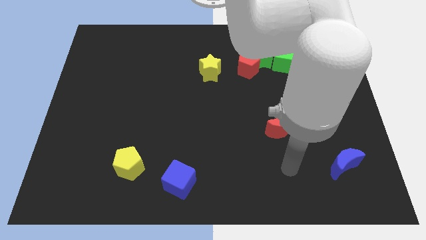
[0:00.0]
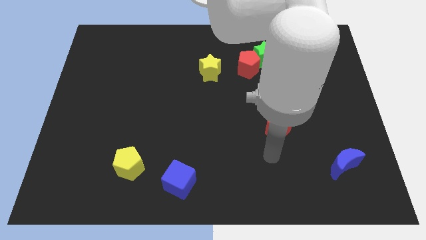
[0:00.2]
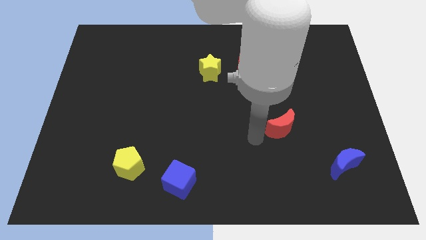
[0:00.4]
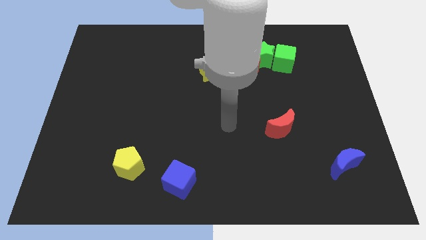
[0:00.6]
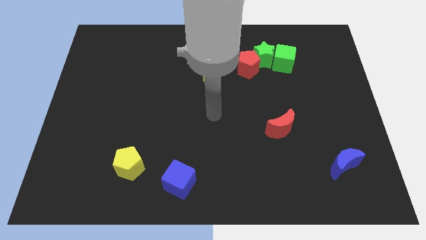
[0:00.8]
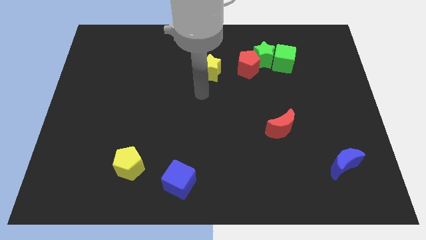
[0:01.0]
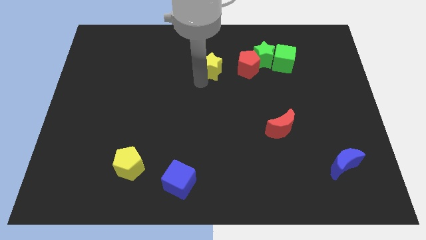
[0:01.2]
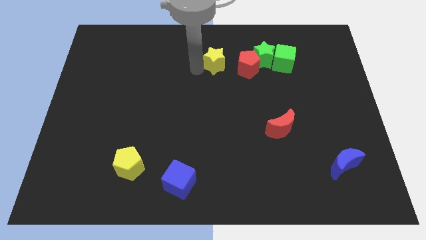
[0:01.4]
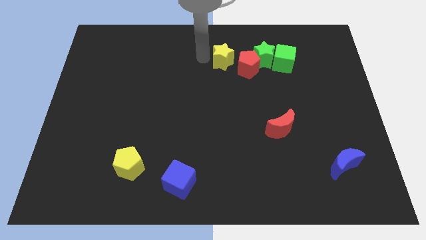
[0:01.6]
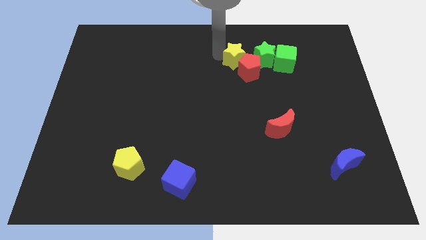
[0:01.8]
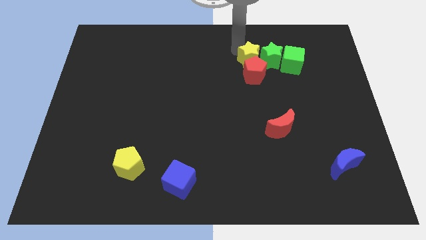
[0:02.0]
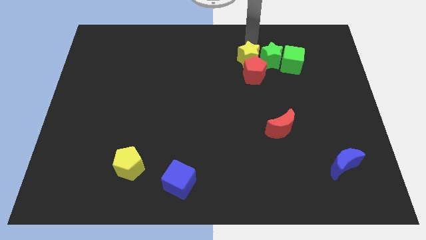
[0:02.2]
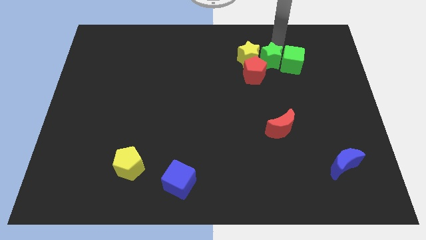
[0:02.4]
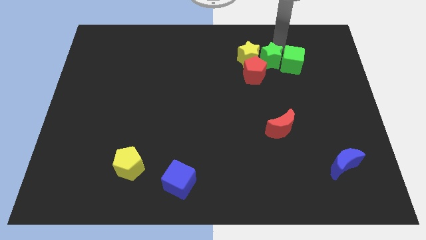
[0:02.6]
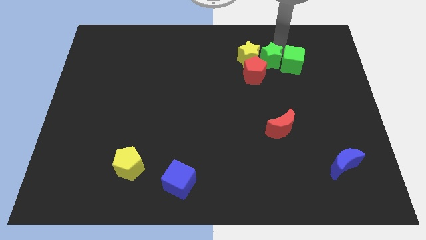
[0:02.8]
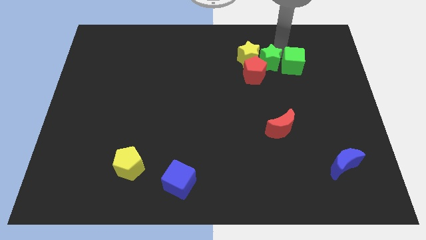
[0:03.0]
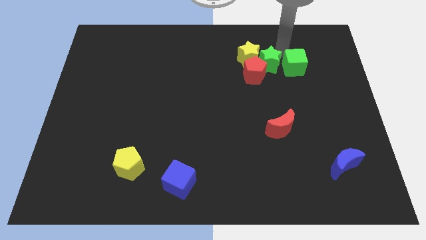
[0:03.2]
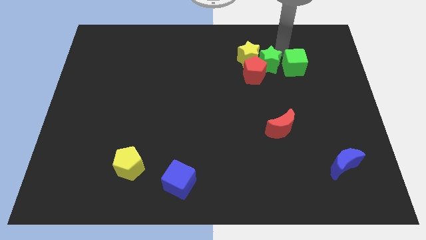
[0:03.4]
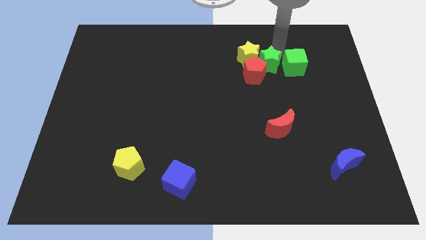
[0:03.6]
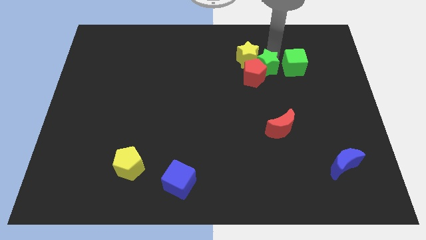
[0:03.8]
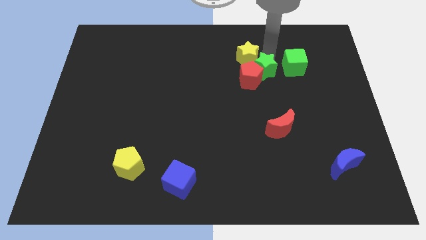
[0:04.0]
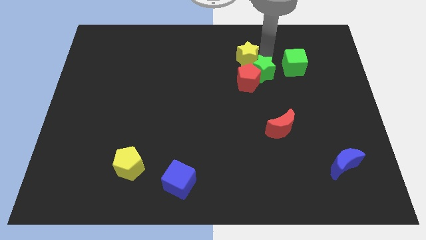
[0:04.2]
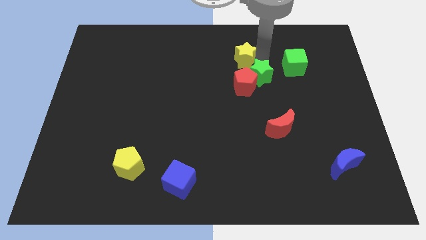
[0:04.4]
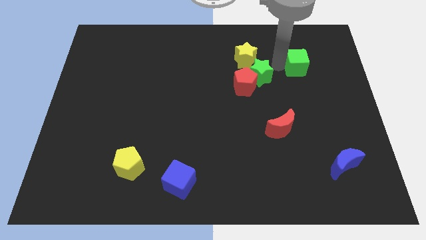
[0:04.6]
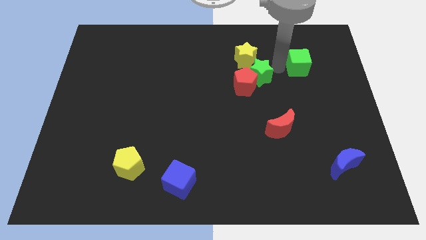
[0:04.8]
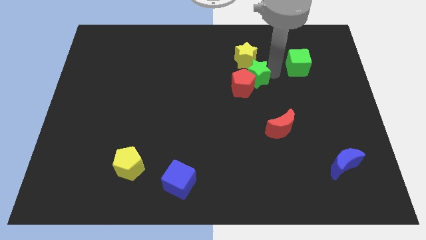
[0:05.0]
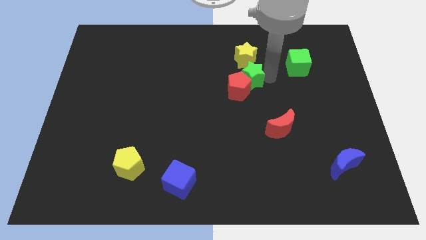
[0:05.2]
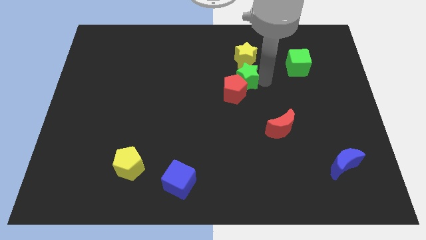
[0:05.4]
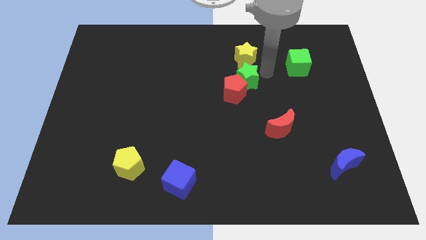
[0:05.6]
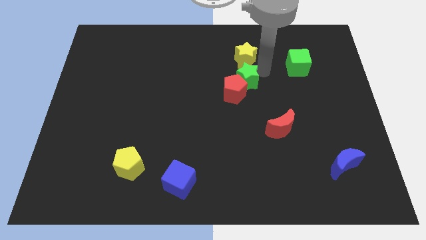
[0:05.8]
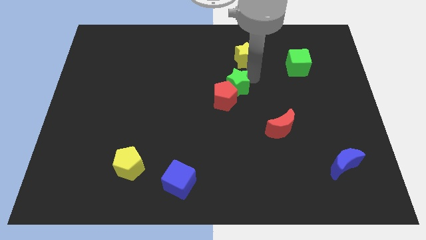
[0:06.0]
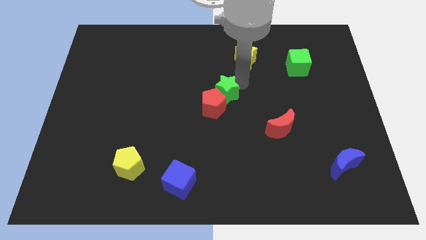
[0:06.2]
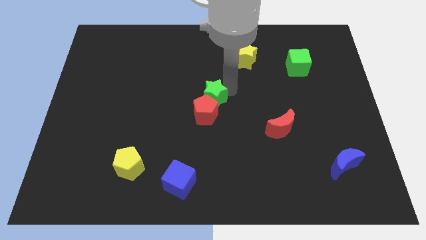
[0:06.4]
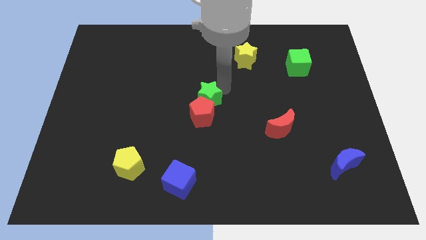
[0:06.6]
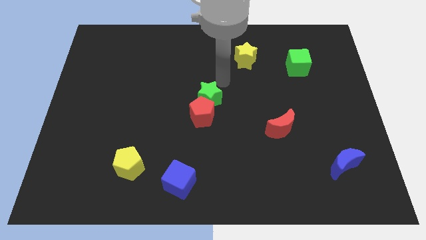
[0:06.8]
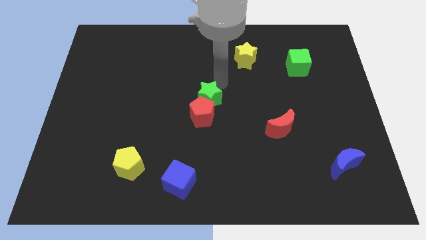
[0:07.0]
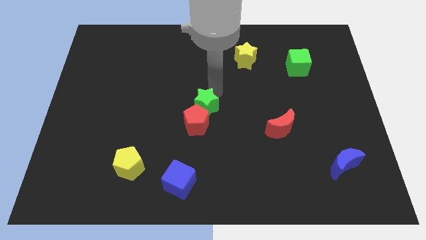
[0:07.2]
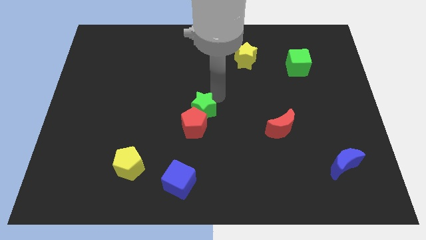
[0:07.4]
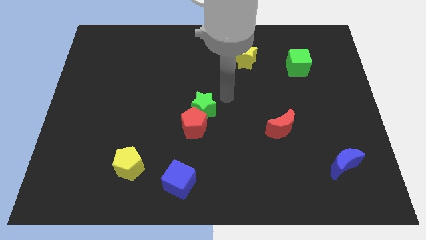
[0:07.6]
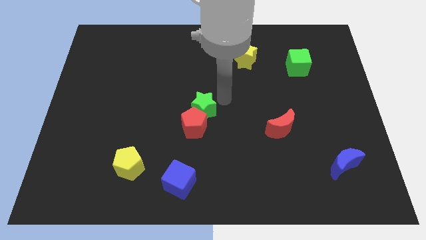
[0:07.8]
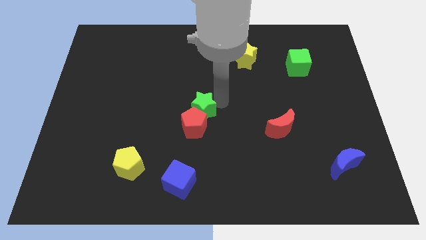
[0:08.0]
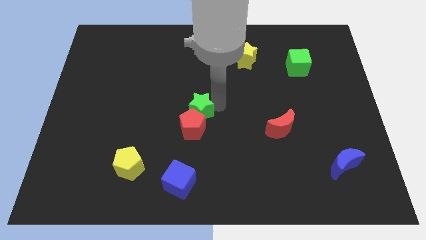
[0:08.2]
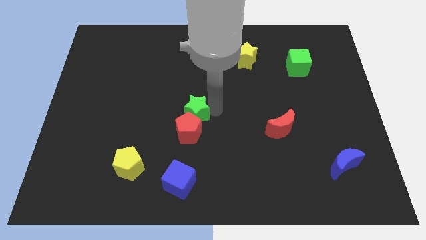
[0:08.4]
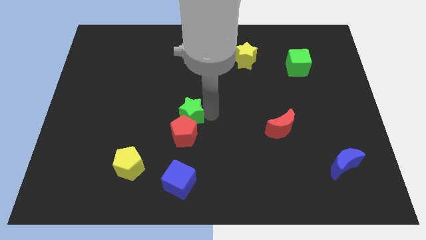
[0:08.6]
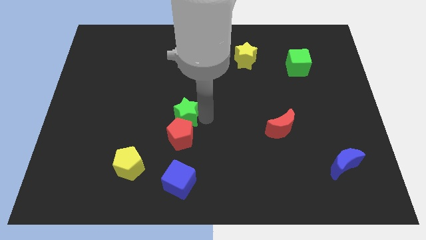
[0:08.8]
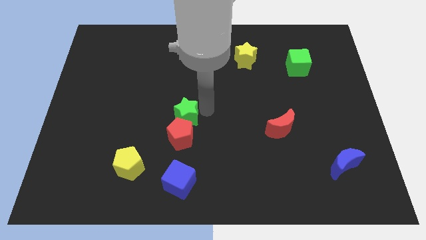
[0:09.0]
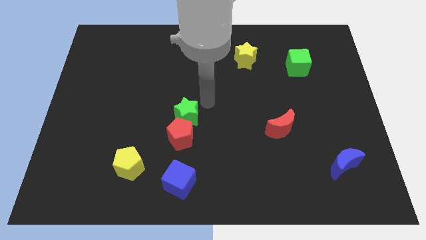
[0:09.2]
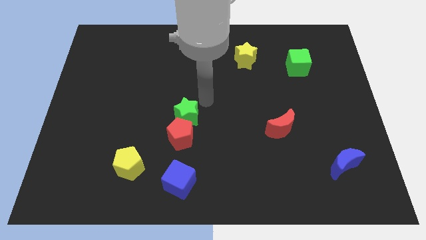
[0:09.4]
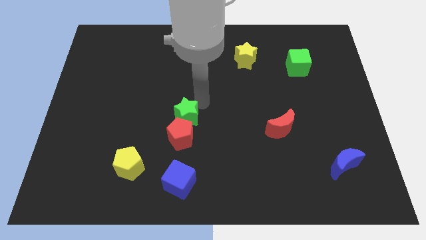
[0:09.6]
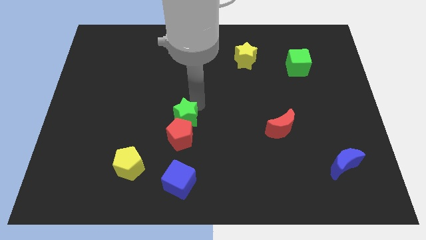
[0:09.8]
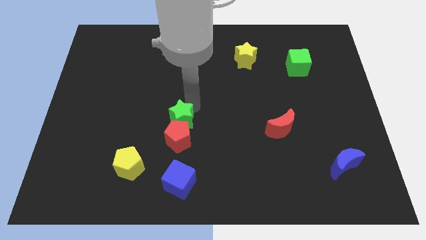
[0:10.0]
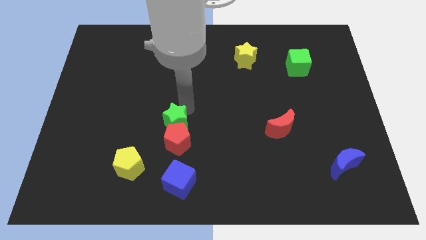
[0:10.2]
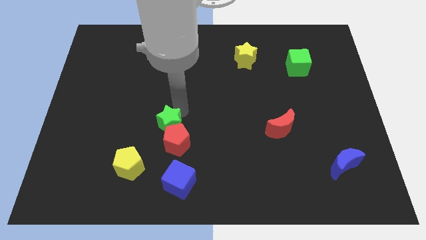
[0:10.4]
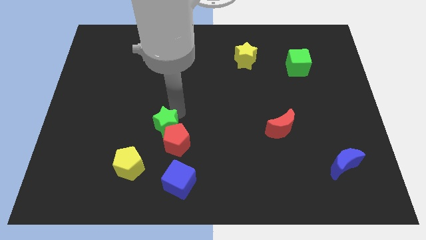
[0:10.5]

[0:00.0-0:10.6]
put the green star diagonally up and to the right of the yellow pentagon

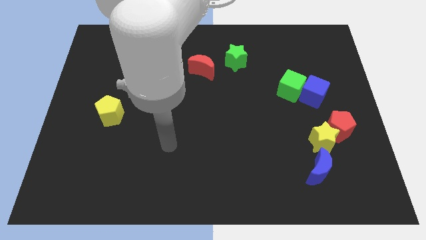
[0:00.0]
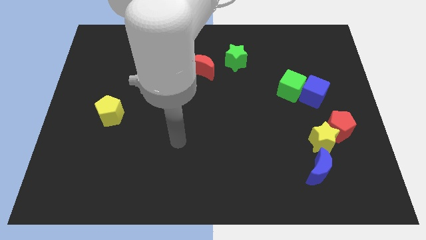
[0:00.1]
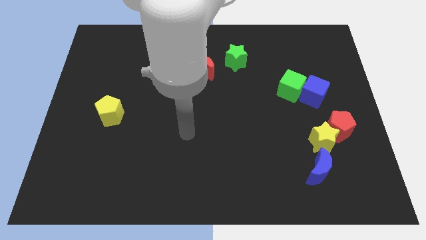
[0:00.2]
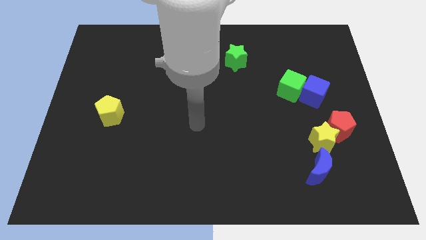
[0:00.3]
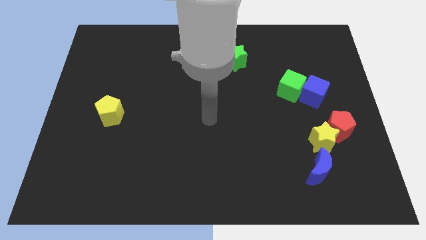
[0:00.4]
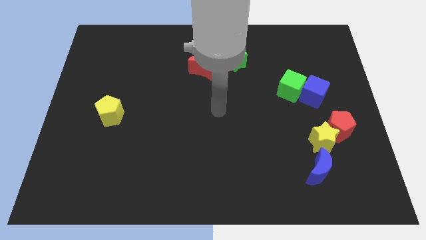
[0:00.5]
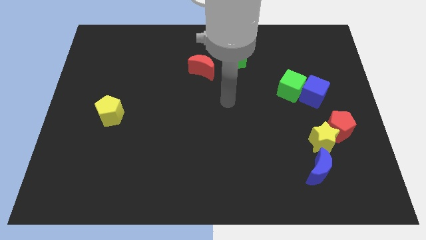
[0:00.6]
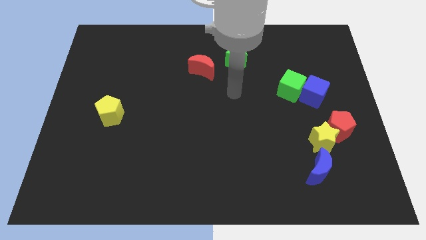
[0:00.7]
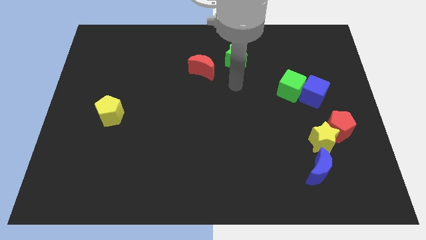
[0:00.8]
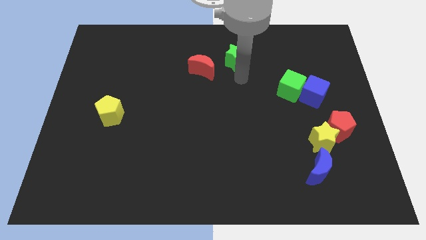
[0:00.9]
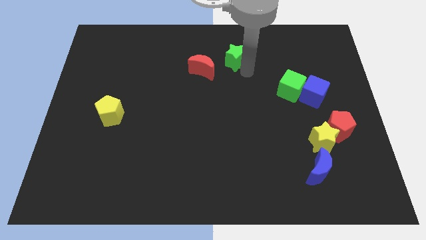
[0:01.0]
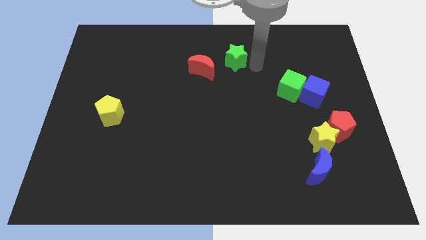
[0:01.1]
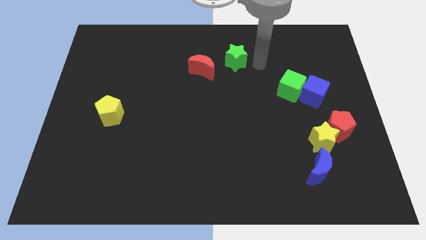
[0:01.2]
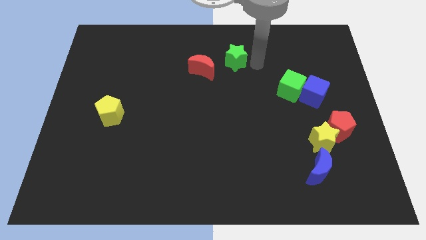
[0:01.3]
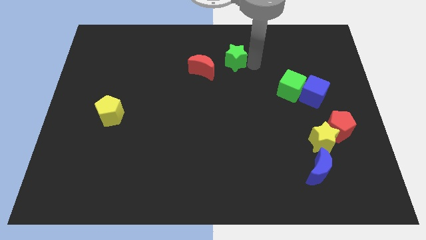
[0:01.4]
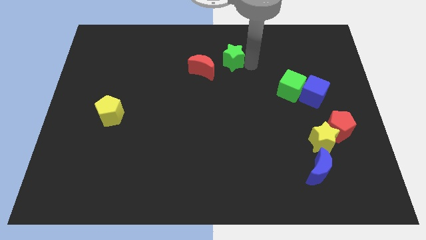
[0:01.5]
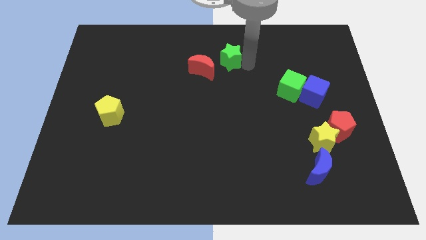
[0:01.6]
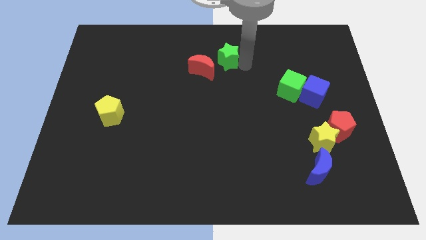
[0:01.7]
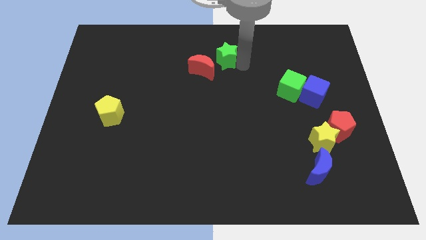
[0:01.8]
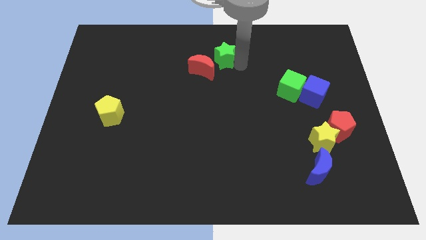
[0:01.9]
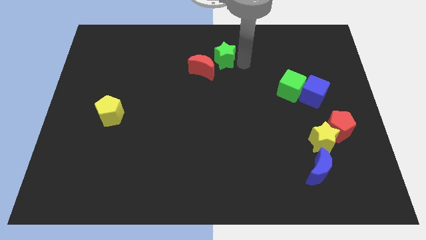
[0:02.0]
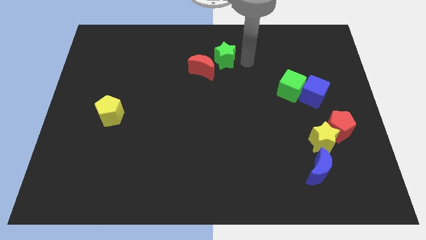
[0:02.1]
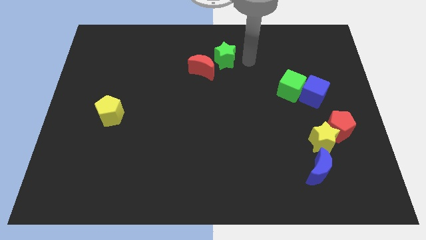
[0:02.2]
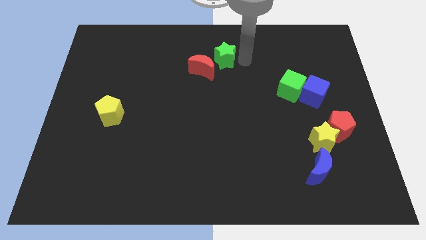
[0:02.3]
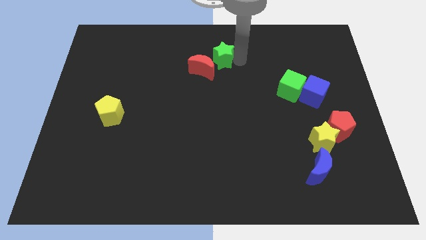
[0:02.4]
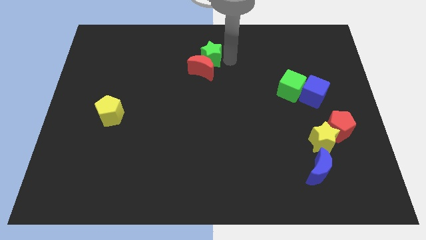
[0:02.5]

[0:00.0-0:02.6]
push the green star to the top left of the red moon
